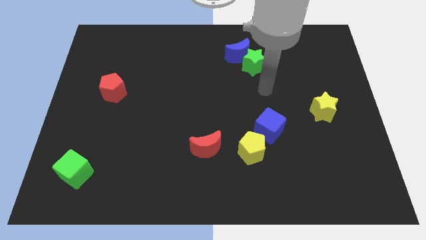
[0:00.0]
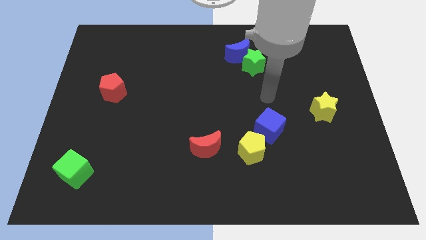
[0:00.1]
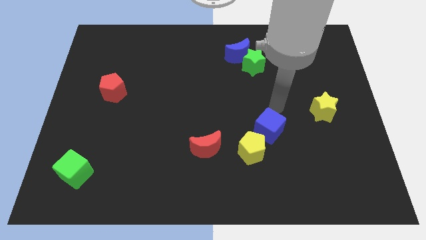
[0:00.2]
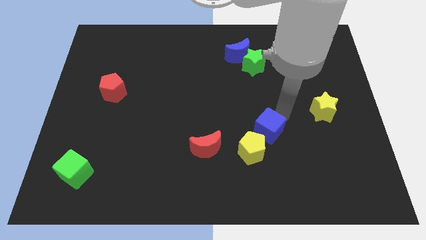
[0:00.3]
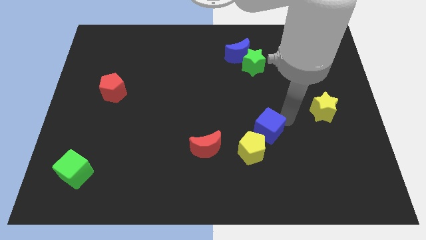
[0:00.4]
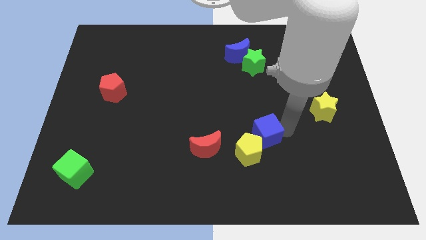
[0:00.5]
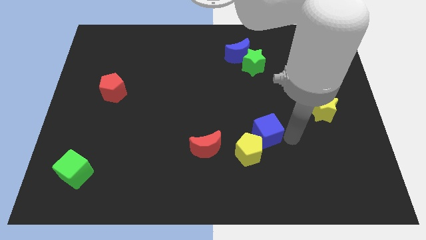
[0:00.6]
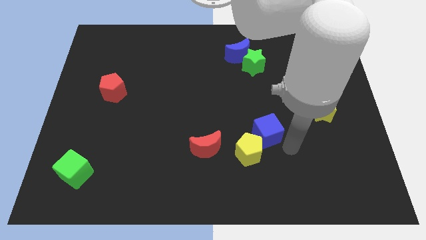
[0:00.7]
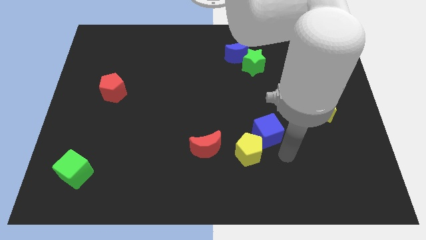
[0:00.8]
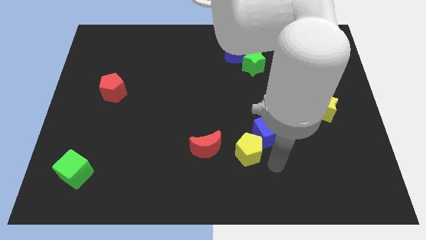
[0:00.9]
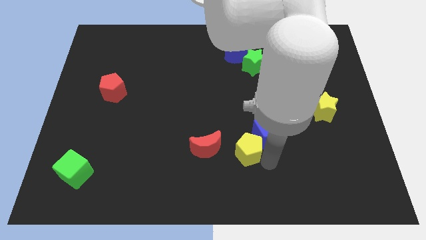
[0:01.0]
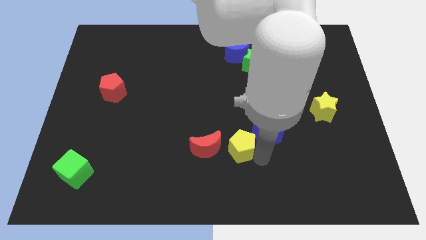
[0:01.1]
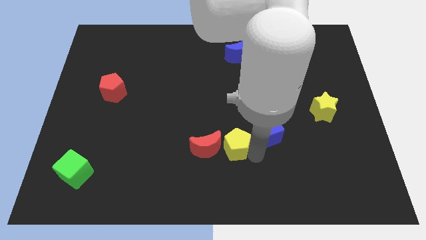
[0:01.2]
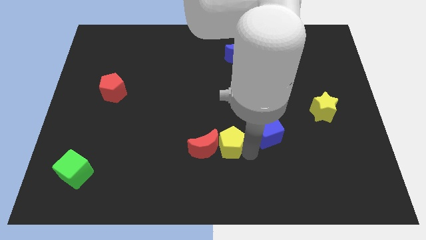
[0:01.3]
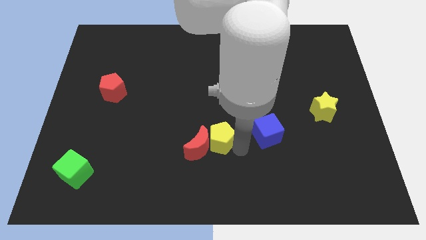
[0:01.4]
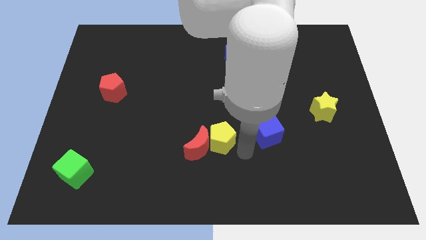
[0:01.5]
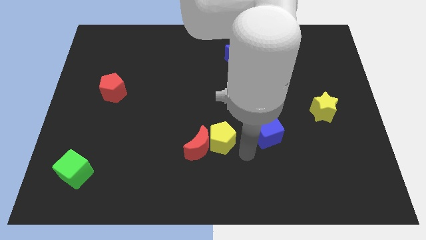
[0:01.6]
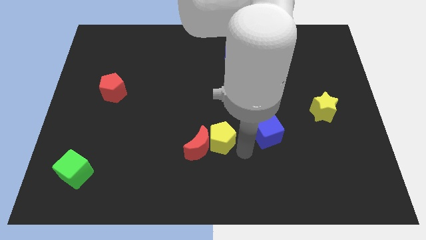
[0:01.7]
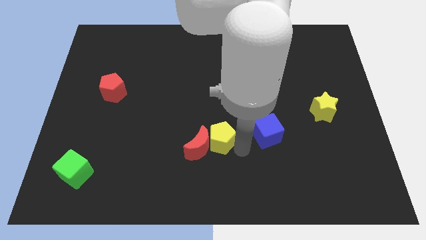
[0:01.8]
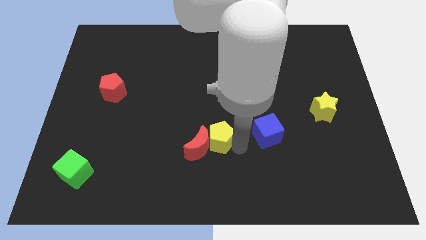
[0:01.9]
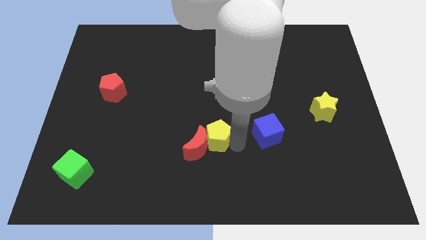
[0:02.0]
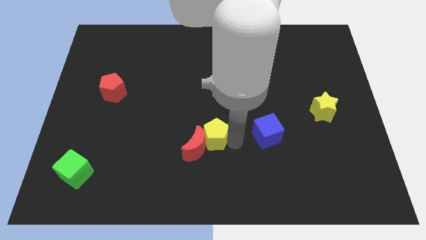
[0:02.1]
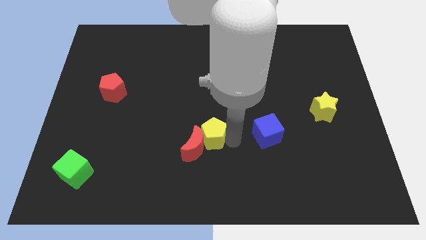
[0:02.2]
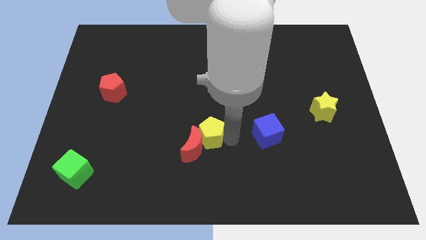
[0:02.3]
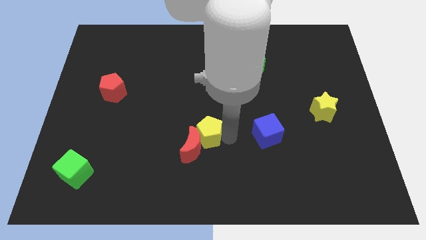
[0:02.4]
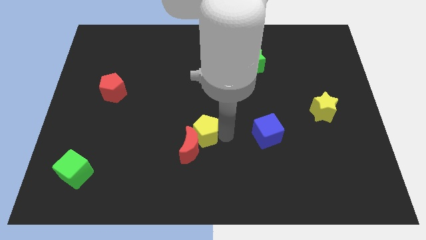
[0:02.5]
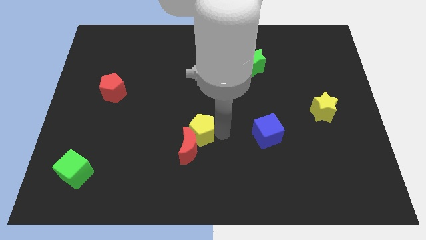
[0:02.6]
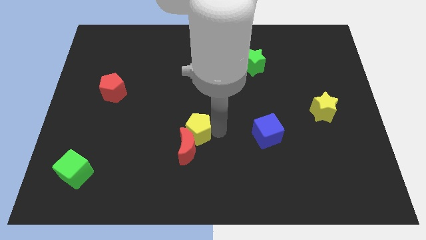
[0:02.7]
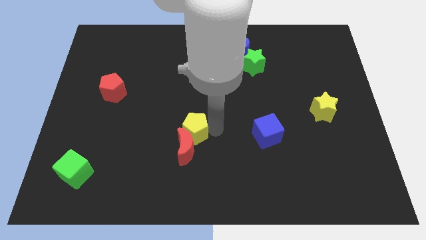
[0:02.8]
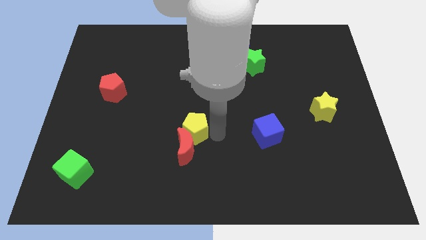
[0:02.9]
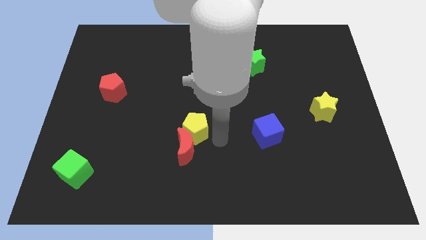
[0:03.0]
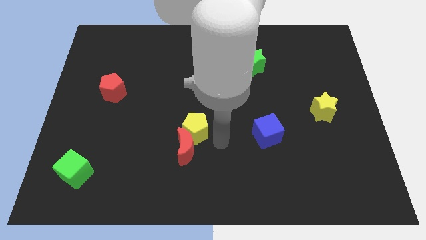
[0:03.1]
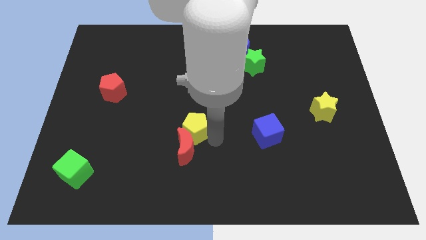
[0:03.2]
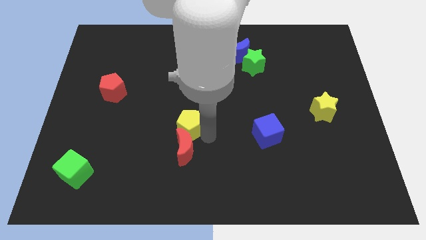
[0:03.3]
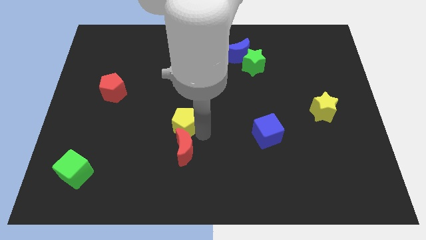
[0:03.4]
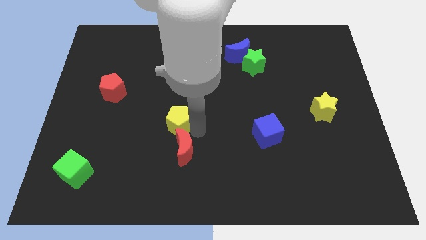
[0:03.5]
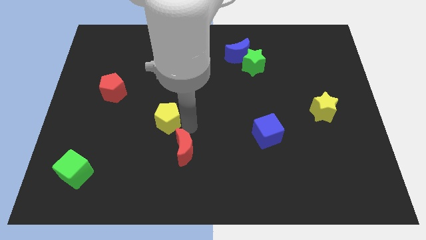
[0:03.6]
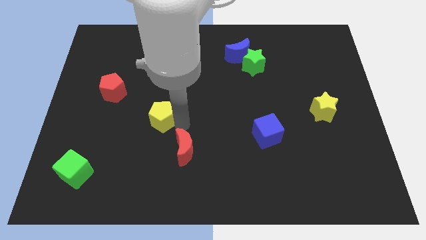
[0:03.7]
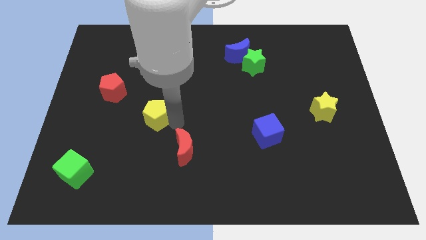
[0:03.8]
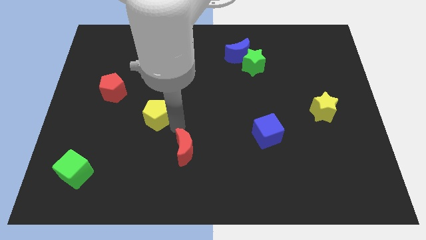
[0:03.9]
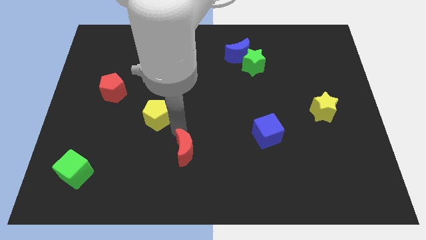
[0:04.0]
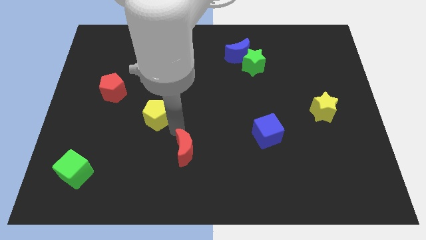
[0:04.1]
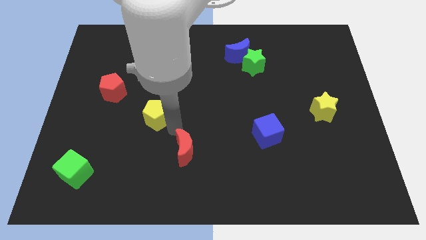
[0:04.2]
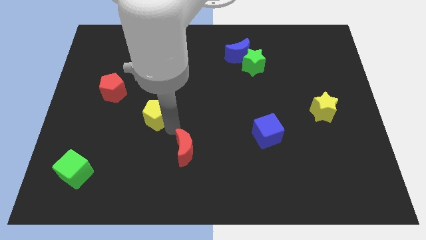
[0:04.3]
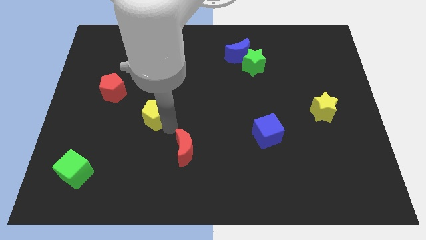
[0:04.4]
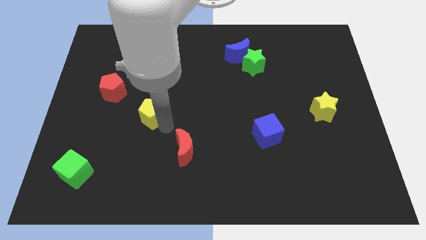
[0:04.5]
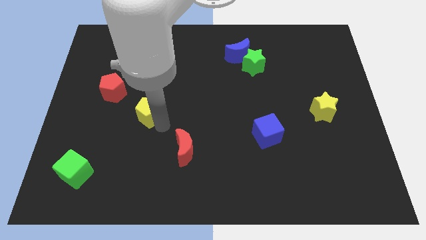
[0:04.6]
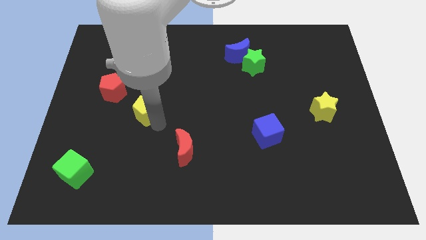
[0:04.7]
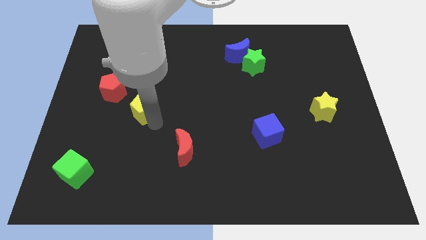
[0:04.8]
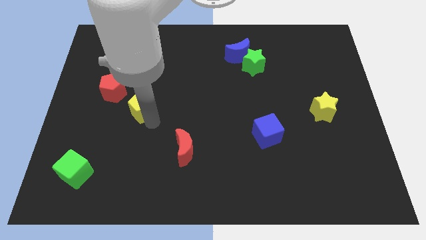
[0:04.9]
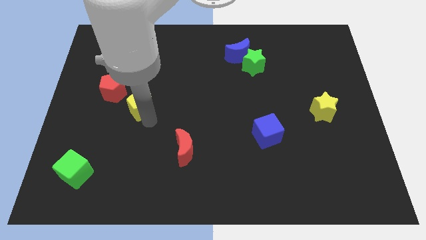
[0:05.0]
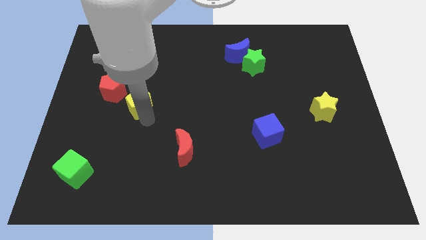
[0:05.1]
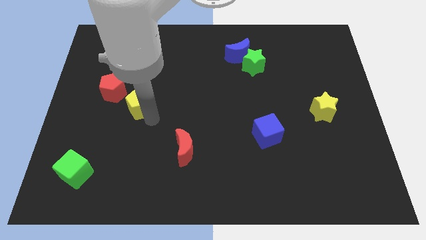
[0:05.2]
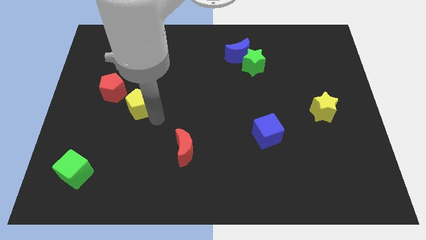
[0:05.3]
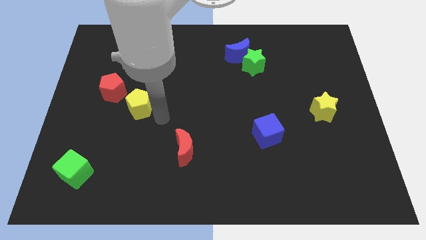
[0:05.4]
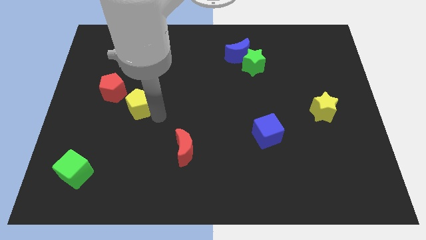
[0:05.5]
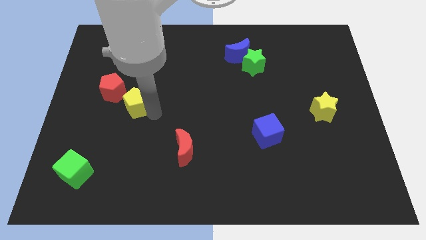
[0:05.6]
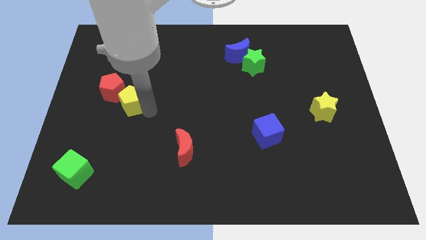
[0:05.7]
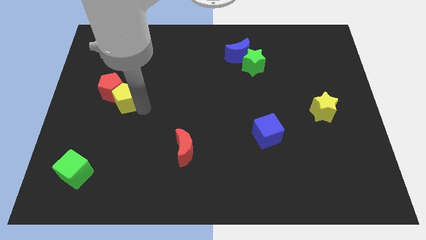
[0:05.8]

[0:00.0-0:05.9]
slide the yellow pentagon next to the red pentagon

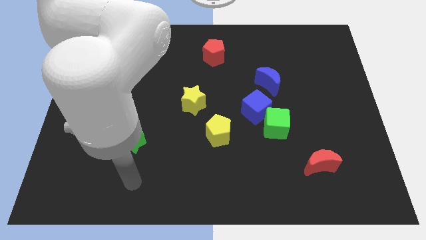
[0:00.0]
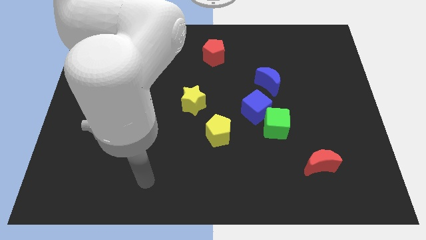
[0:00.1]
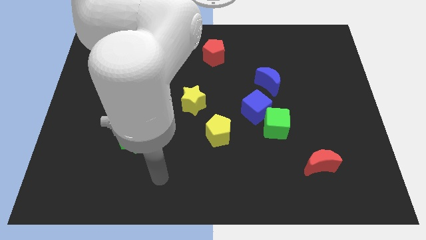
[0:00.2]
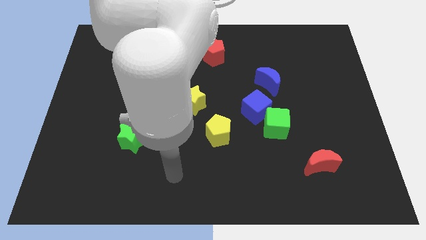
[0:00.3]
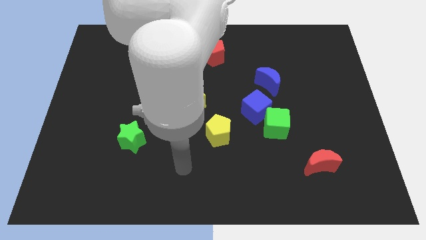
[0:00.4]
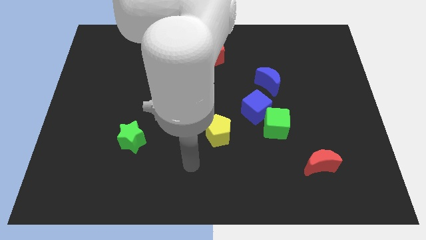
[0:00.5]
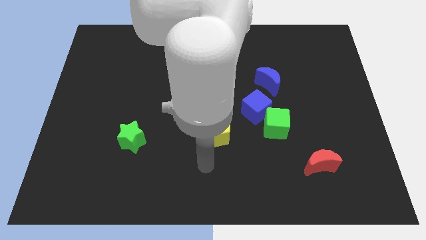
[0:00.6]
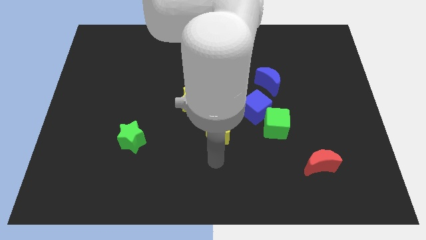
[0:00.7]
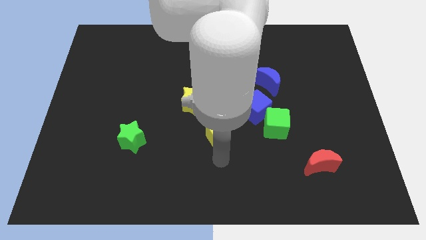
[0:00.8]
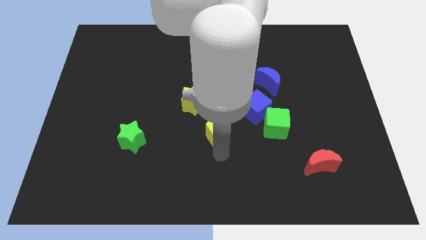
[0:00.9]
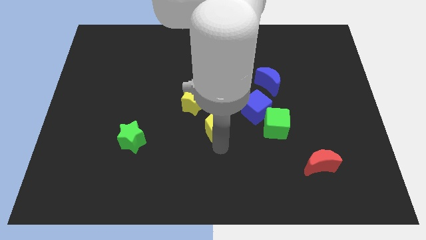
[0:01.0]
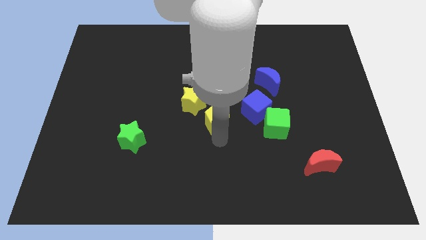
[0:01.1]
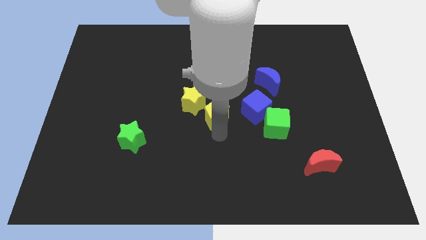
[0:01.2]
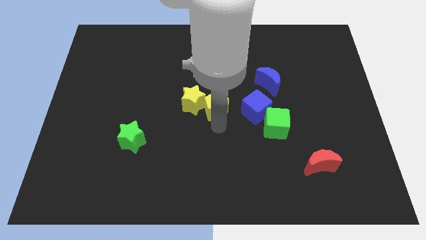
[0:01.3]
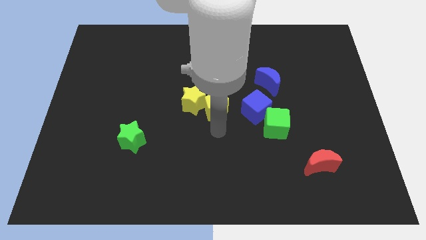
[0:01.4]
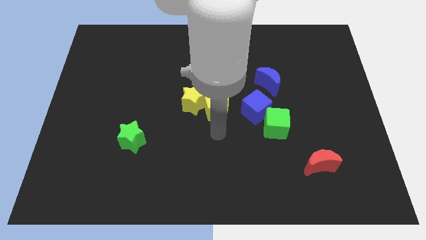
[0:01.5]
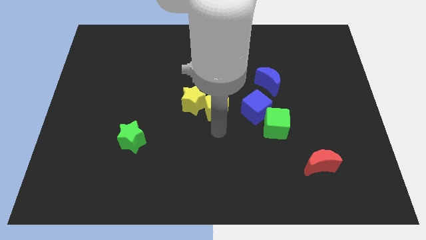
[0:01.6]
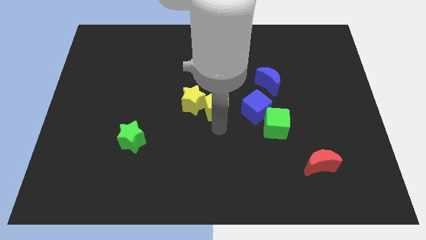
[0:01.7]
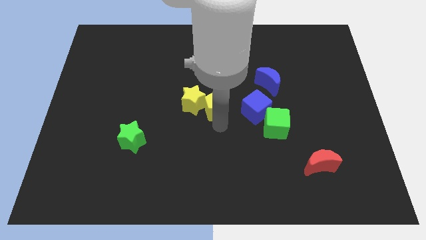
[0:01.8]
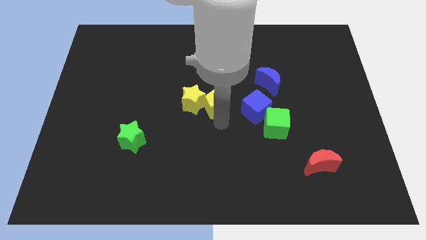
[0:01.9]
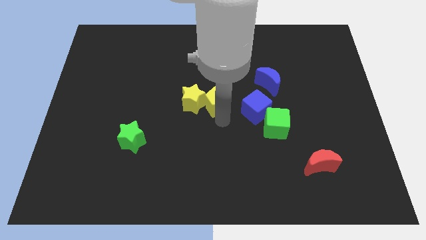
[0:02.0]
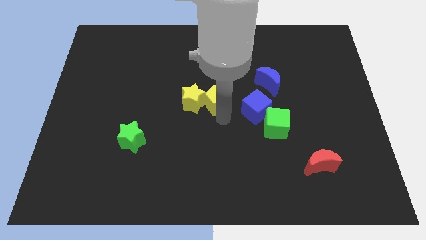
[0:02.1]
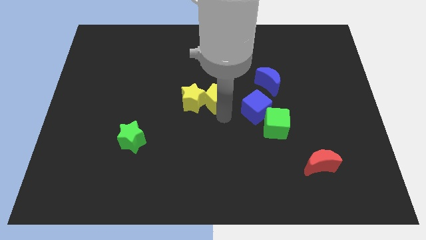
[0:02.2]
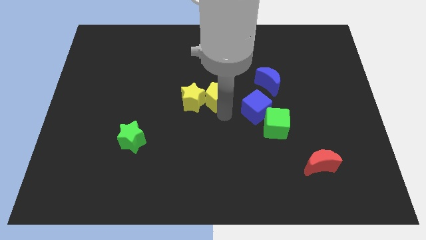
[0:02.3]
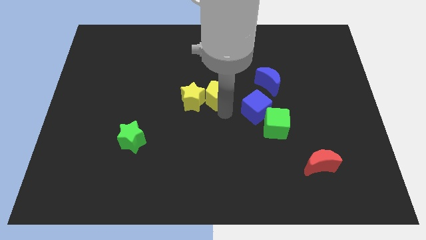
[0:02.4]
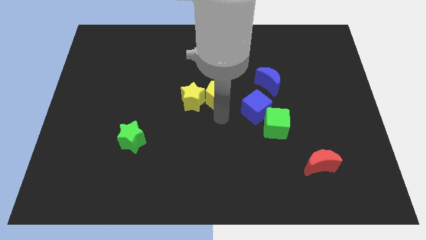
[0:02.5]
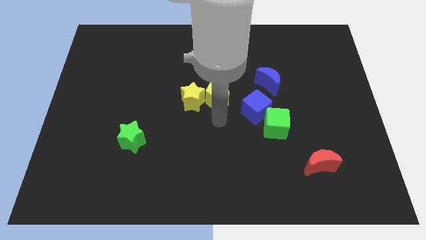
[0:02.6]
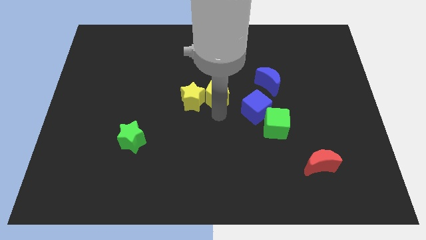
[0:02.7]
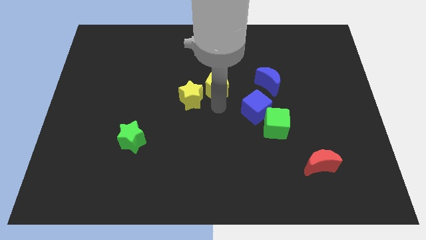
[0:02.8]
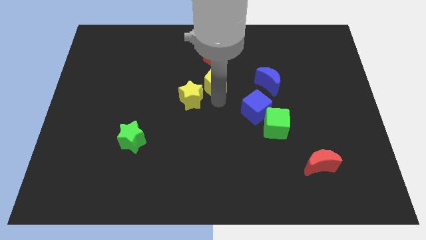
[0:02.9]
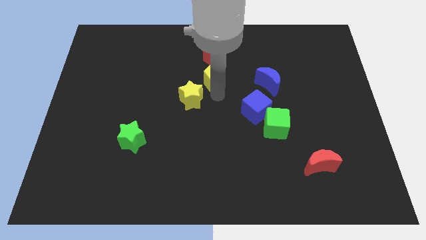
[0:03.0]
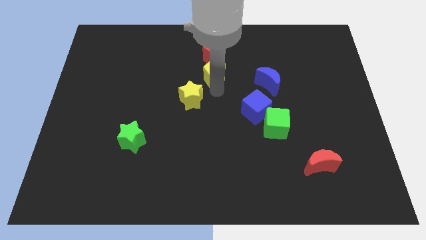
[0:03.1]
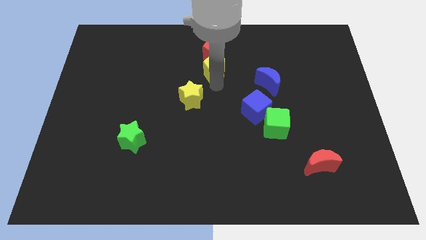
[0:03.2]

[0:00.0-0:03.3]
slide the yellow pentagon close to the red pentagon
